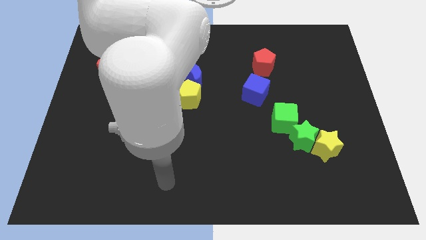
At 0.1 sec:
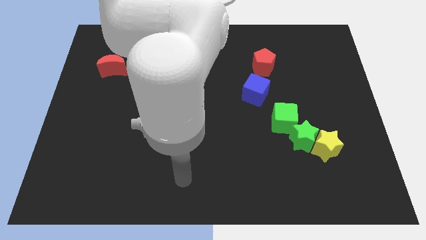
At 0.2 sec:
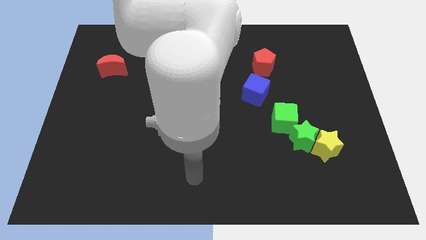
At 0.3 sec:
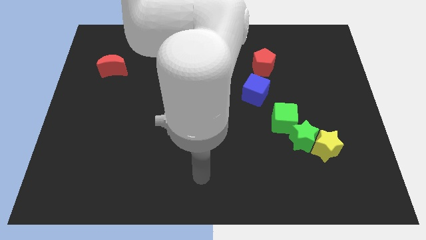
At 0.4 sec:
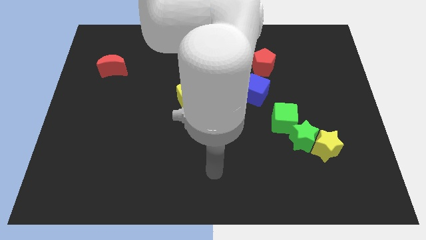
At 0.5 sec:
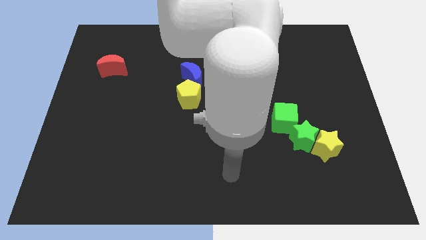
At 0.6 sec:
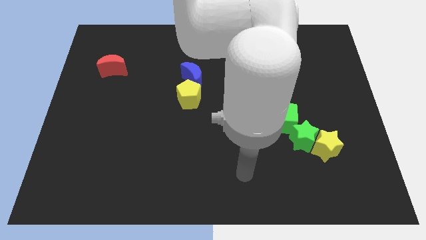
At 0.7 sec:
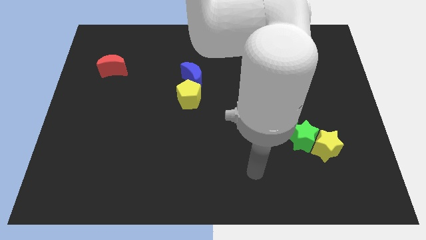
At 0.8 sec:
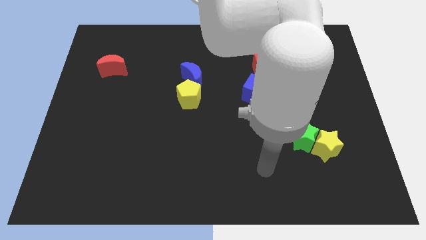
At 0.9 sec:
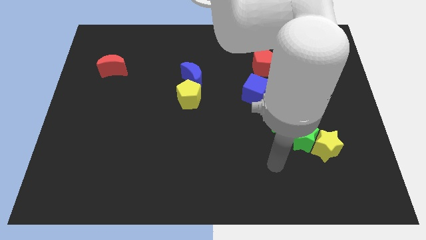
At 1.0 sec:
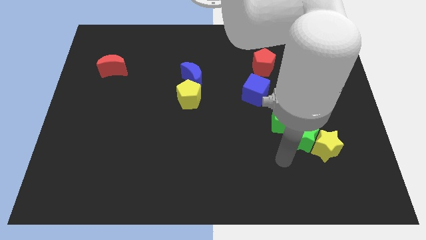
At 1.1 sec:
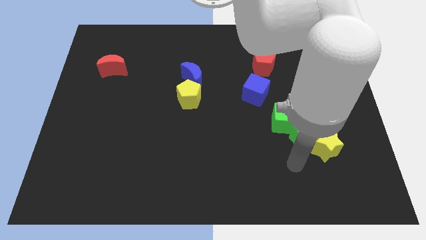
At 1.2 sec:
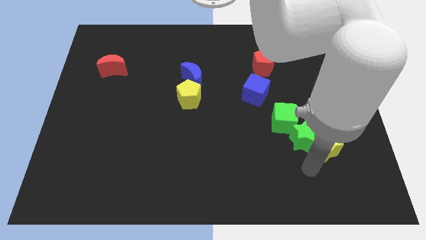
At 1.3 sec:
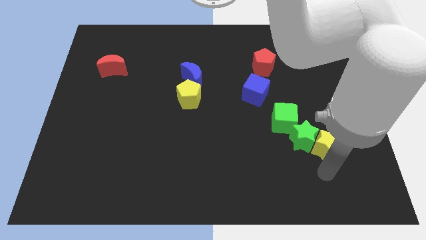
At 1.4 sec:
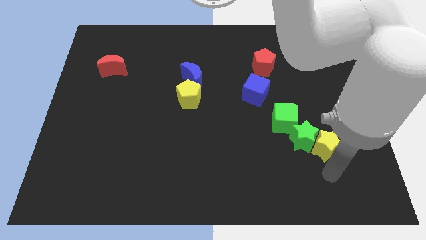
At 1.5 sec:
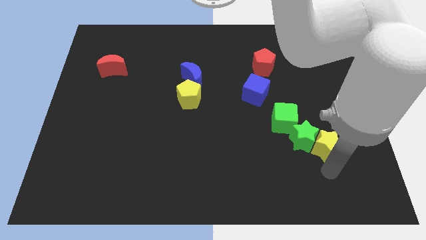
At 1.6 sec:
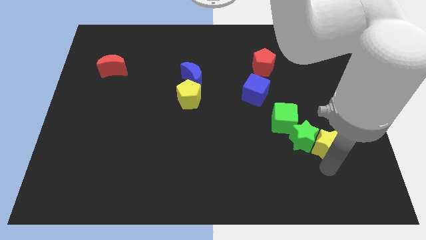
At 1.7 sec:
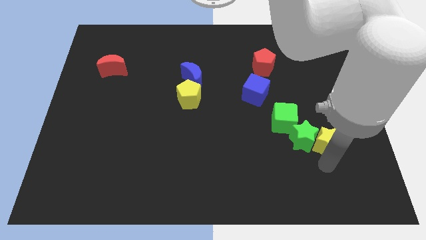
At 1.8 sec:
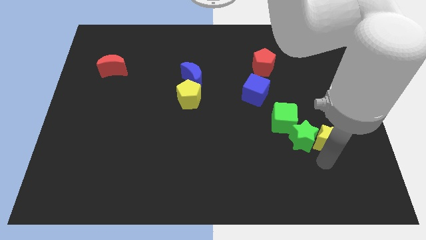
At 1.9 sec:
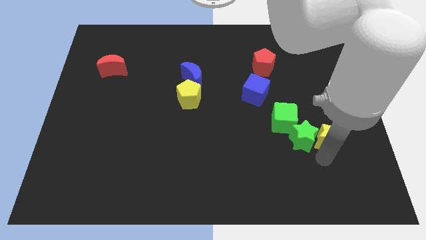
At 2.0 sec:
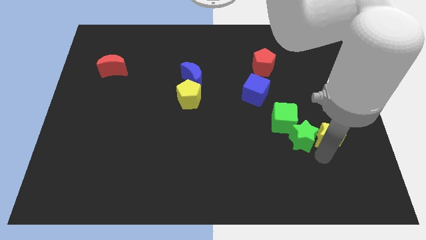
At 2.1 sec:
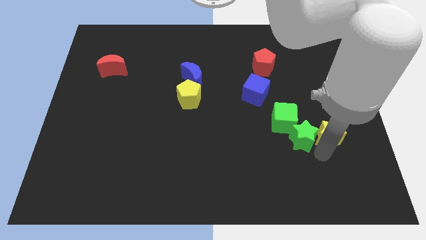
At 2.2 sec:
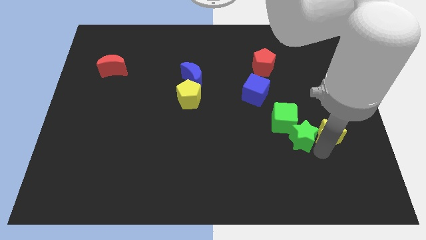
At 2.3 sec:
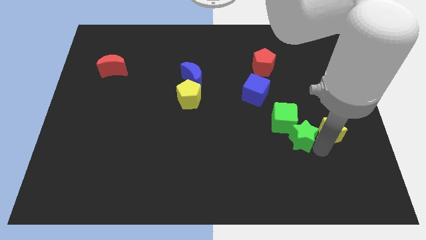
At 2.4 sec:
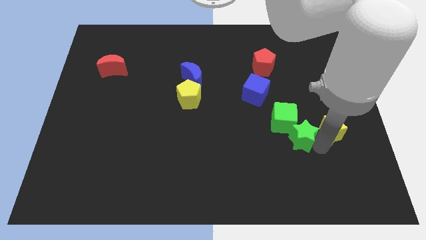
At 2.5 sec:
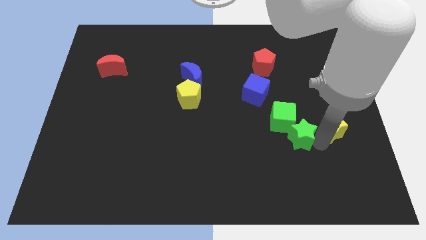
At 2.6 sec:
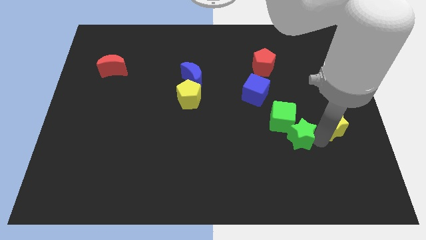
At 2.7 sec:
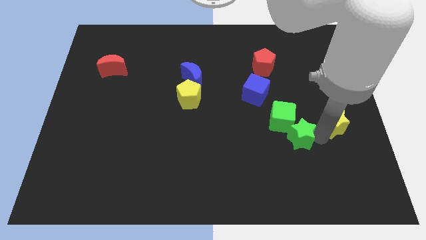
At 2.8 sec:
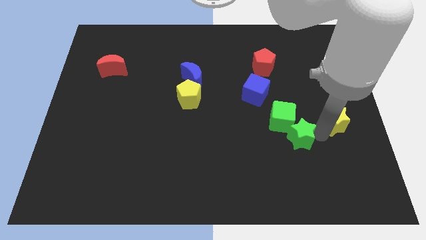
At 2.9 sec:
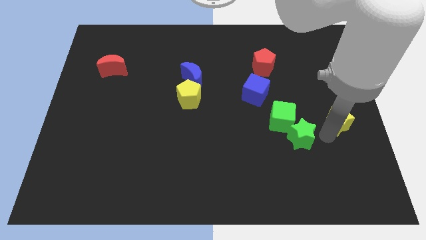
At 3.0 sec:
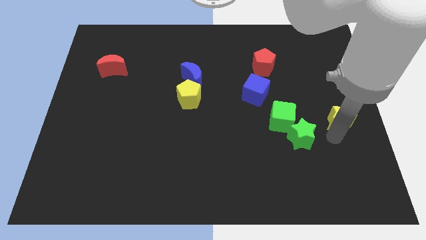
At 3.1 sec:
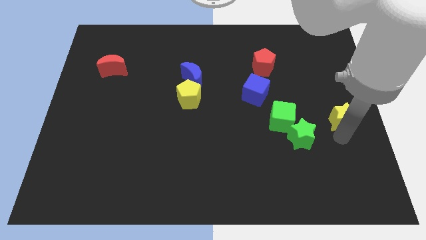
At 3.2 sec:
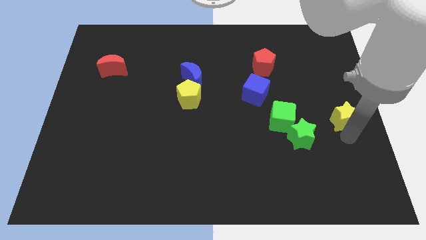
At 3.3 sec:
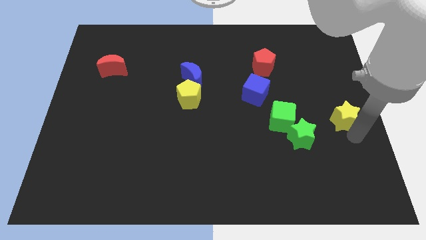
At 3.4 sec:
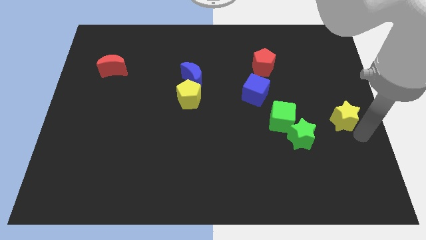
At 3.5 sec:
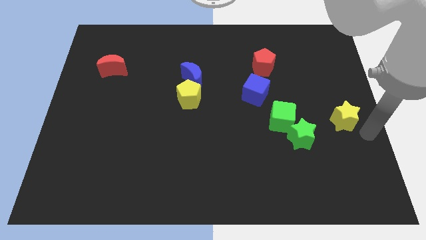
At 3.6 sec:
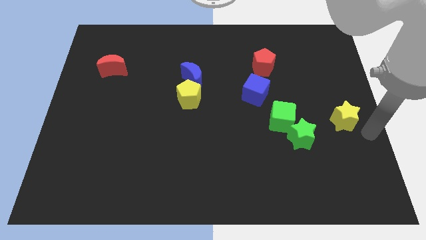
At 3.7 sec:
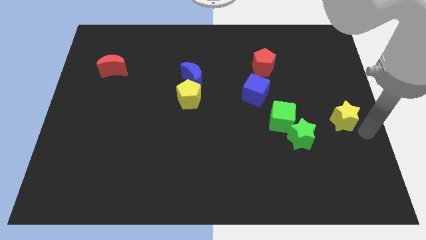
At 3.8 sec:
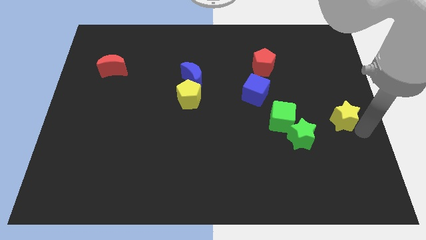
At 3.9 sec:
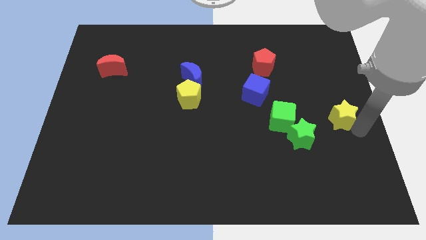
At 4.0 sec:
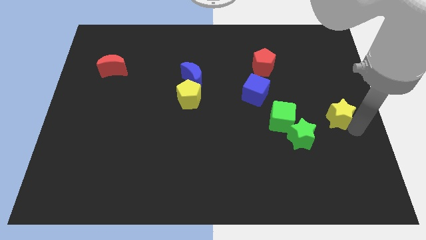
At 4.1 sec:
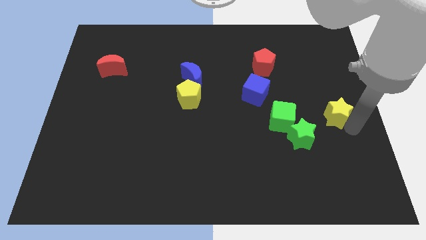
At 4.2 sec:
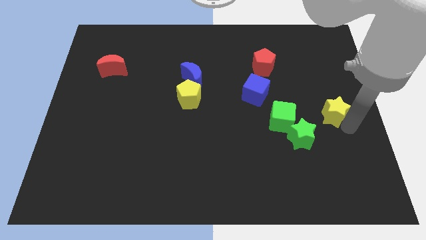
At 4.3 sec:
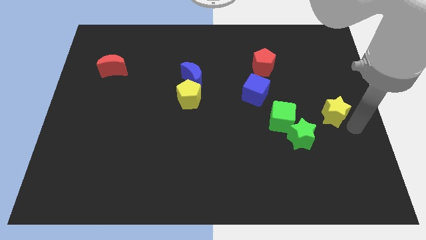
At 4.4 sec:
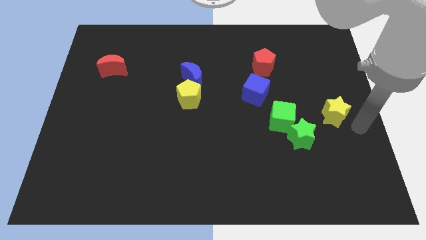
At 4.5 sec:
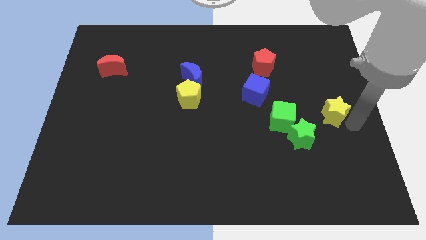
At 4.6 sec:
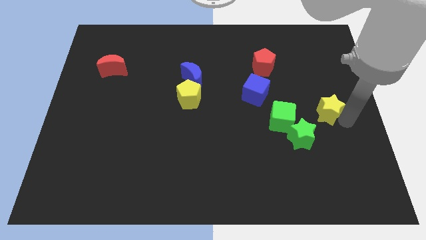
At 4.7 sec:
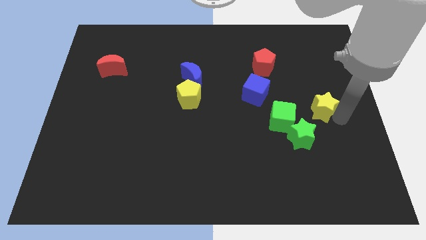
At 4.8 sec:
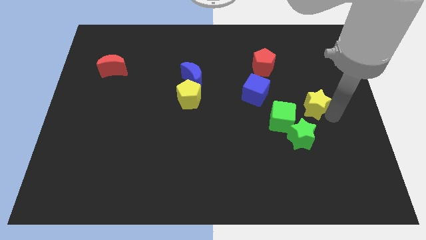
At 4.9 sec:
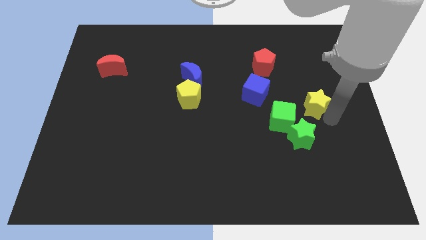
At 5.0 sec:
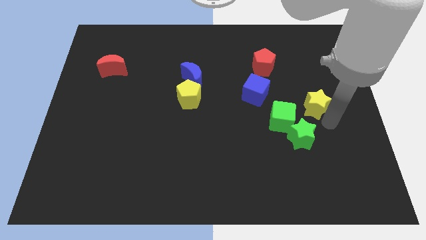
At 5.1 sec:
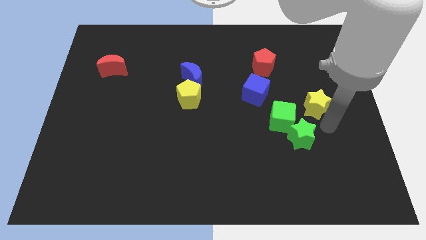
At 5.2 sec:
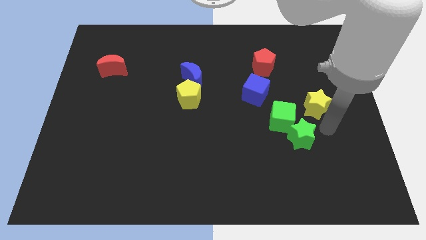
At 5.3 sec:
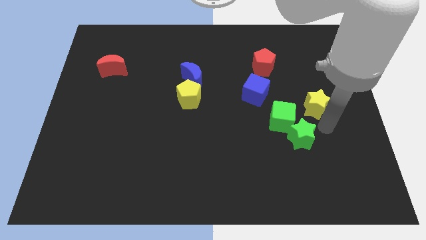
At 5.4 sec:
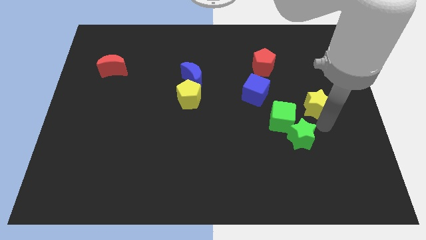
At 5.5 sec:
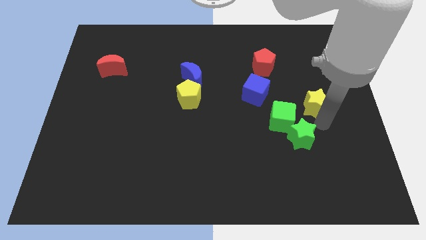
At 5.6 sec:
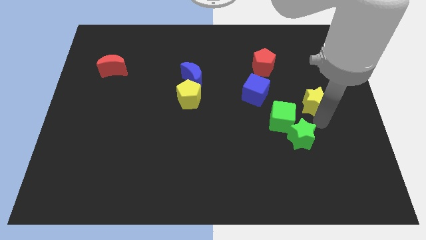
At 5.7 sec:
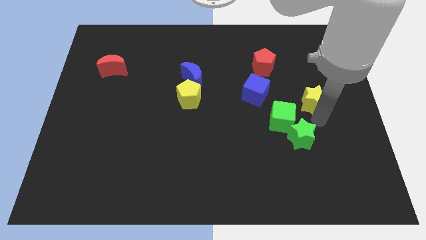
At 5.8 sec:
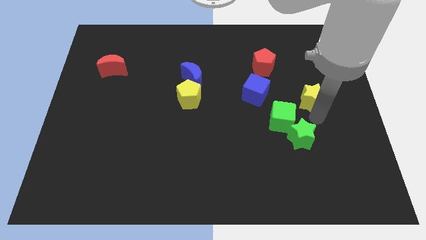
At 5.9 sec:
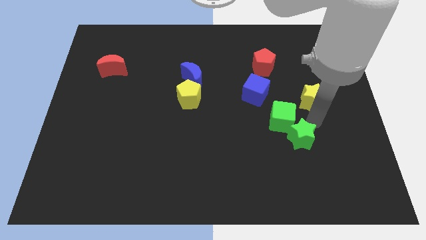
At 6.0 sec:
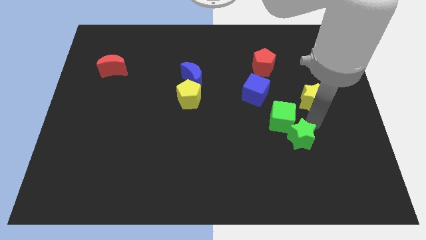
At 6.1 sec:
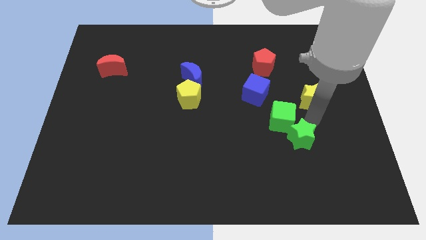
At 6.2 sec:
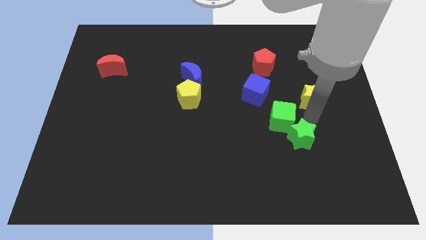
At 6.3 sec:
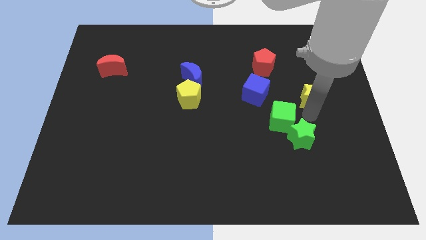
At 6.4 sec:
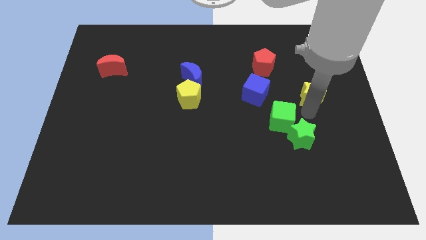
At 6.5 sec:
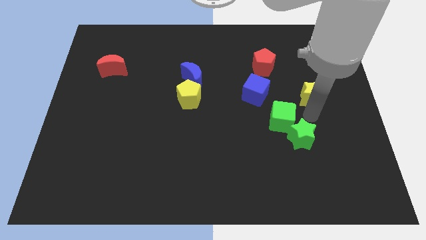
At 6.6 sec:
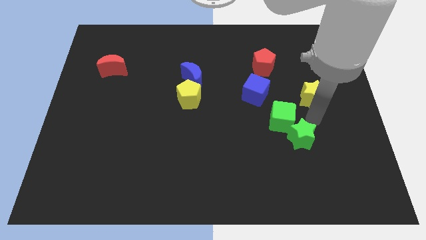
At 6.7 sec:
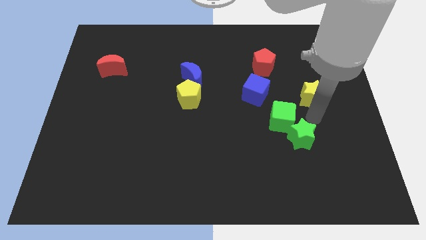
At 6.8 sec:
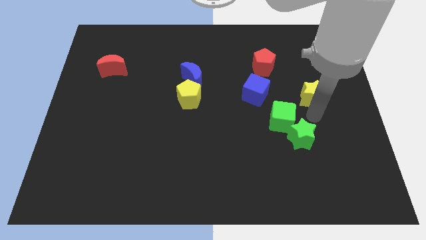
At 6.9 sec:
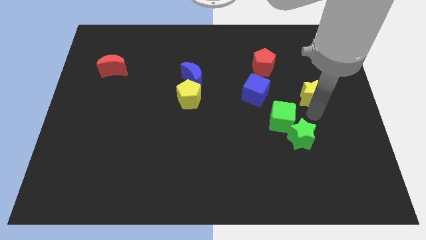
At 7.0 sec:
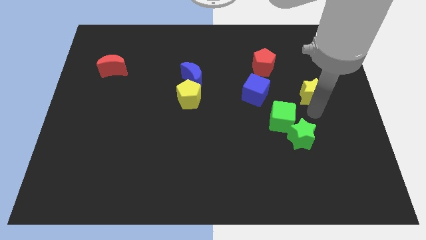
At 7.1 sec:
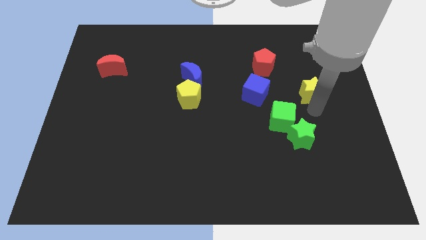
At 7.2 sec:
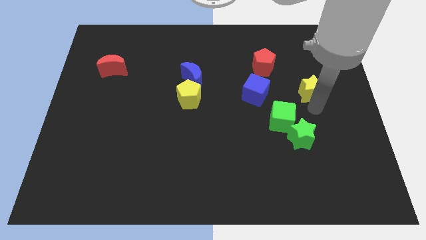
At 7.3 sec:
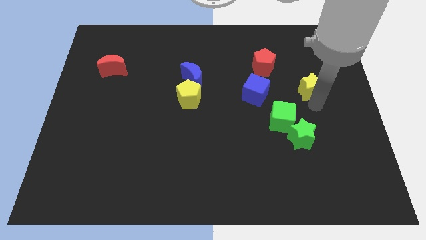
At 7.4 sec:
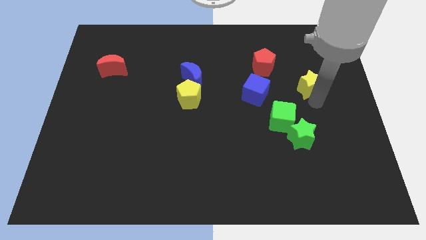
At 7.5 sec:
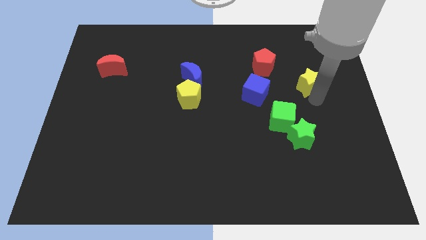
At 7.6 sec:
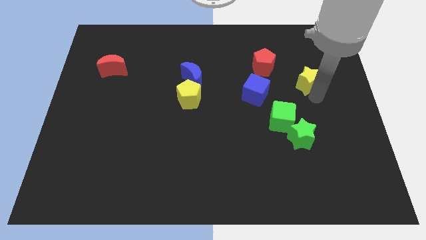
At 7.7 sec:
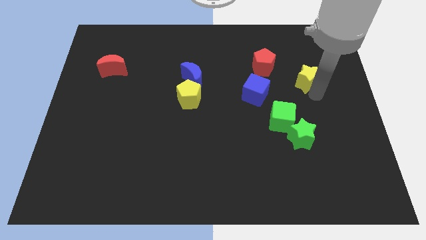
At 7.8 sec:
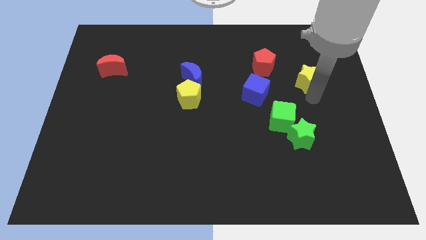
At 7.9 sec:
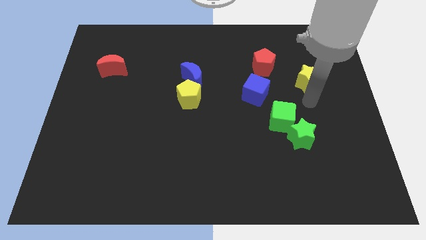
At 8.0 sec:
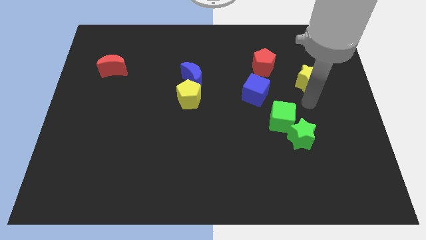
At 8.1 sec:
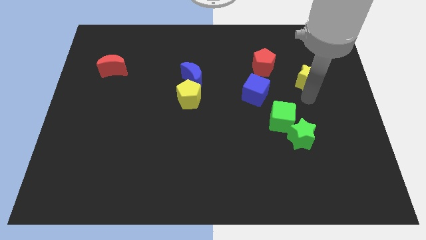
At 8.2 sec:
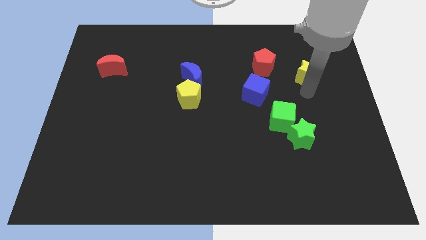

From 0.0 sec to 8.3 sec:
slide the yellow star to the right of the red pentagon

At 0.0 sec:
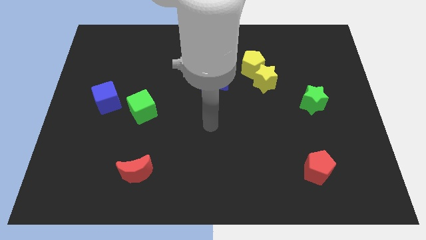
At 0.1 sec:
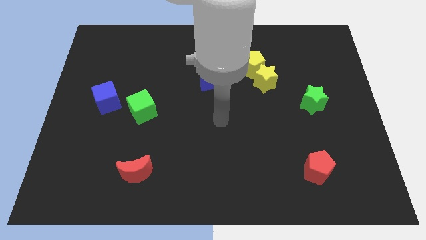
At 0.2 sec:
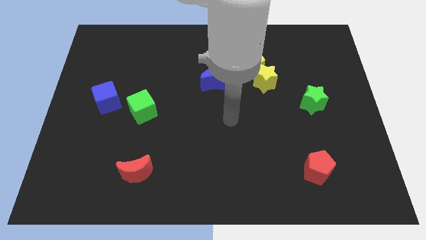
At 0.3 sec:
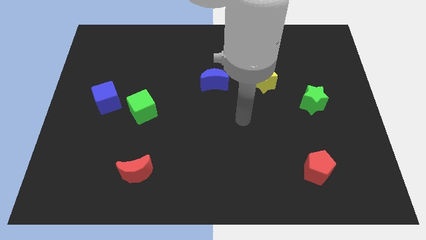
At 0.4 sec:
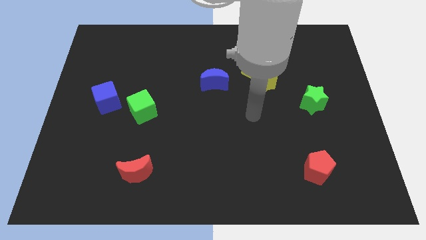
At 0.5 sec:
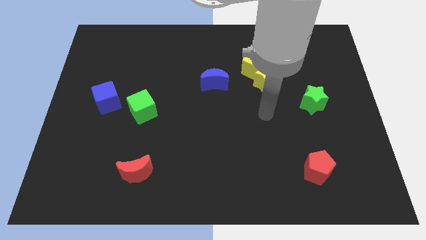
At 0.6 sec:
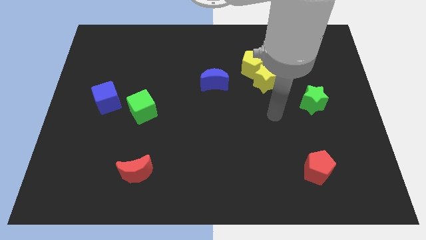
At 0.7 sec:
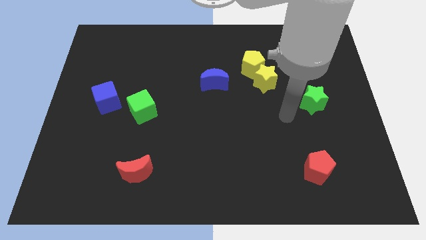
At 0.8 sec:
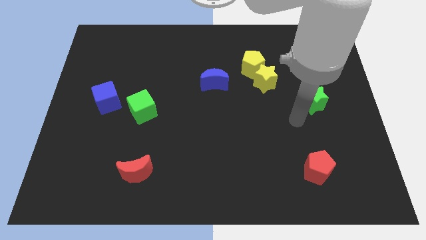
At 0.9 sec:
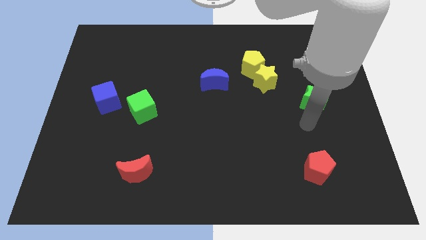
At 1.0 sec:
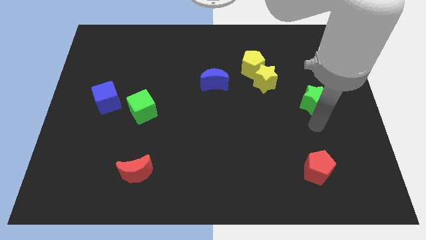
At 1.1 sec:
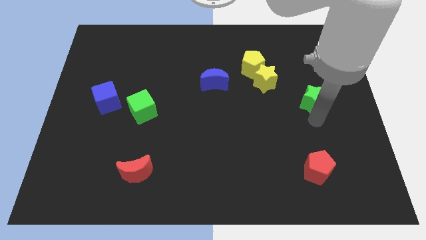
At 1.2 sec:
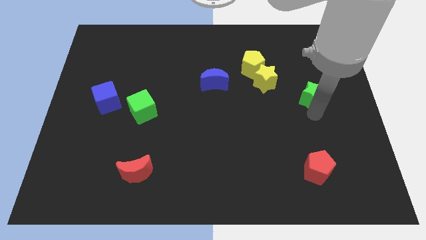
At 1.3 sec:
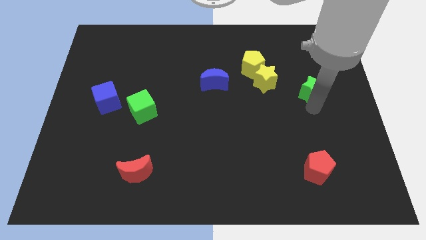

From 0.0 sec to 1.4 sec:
push the green star to the right of the yellow star
